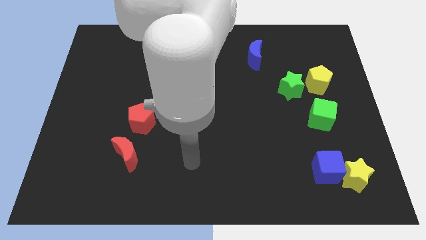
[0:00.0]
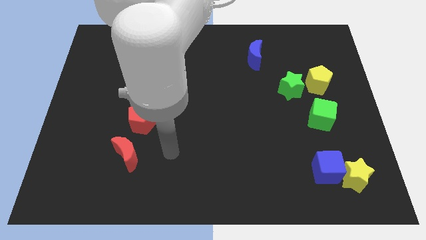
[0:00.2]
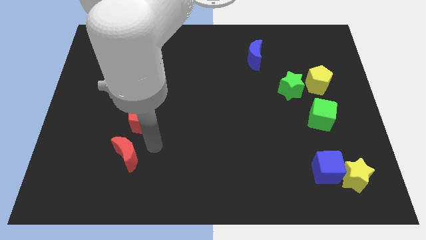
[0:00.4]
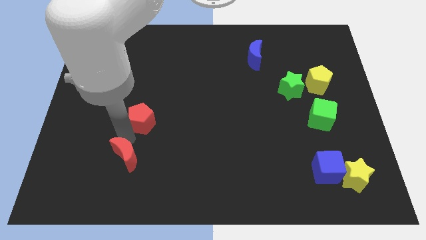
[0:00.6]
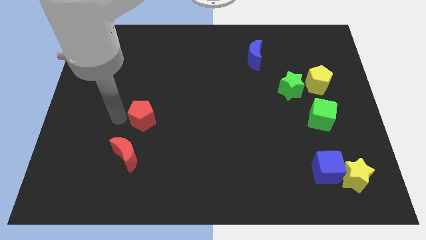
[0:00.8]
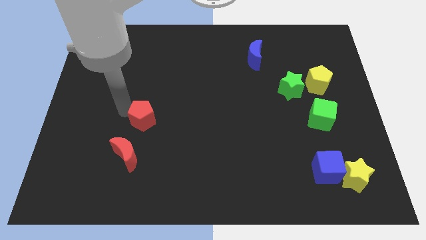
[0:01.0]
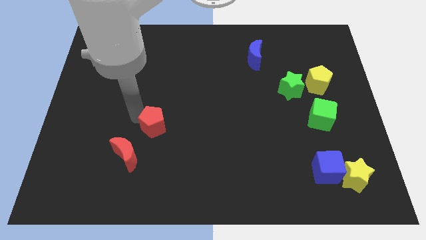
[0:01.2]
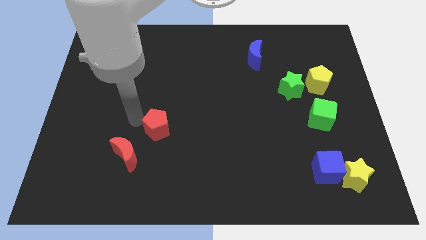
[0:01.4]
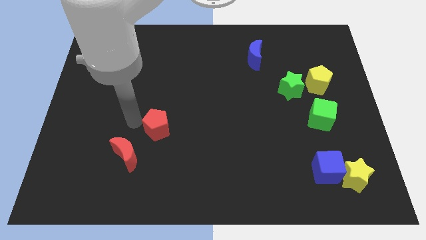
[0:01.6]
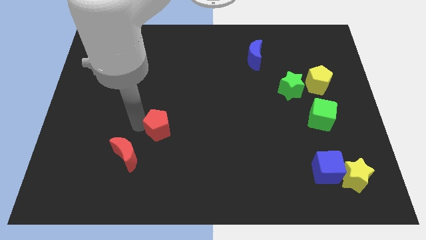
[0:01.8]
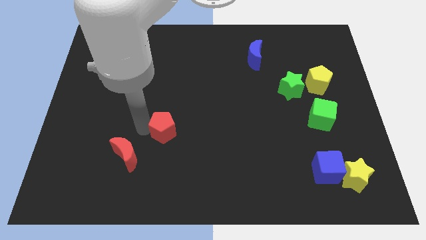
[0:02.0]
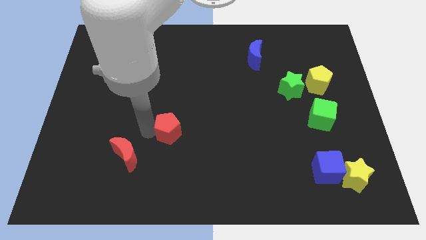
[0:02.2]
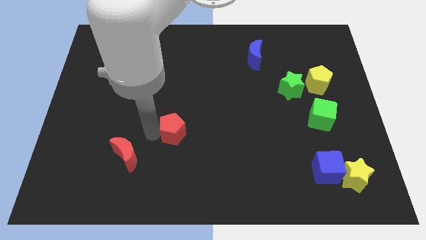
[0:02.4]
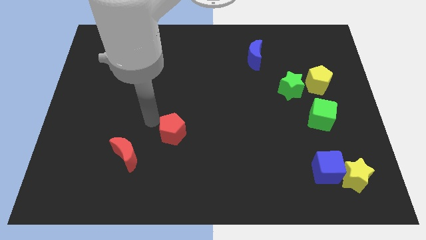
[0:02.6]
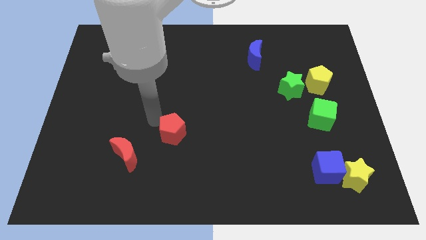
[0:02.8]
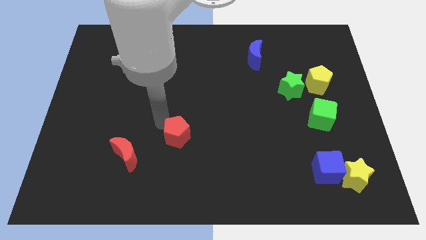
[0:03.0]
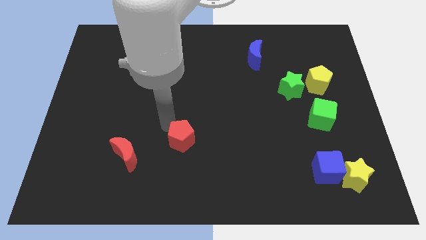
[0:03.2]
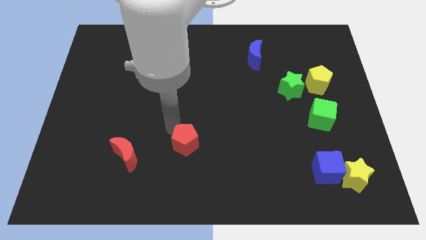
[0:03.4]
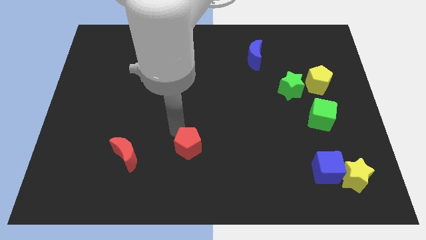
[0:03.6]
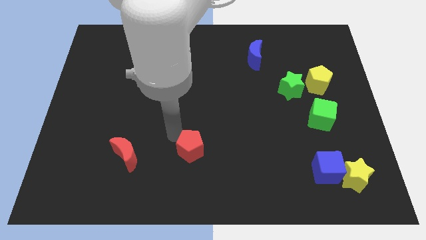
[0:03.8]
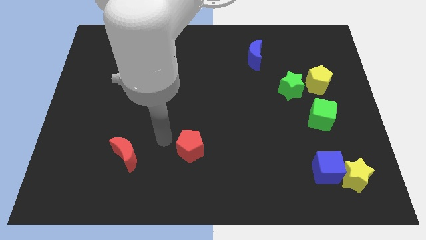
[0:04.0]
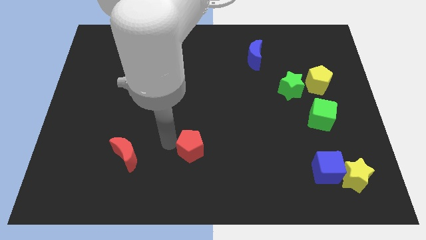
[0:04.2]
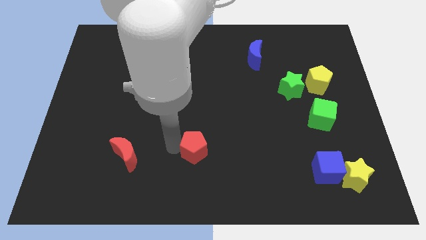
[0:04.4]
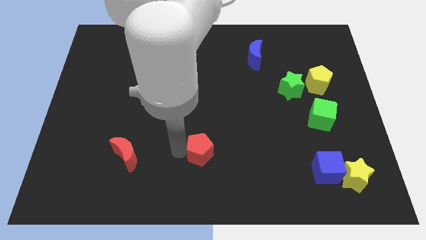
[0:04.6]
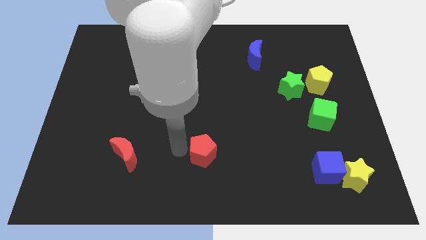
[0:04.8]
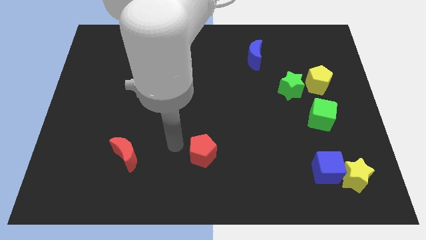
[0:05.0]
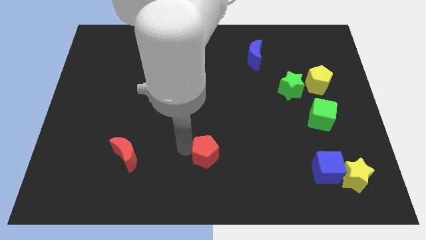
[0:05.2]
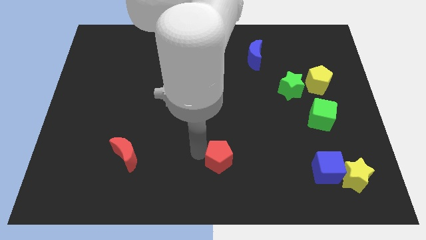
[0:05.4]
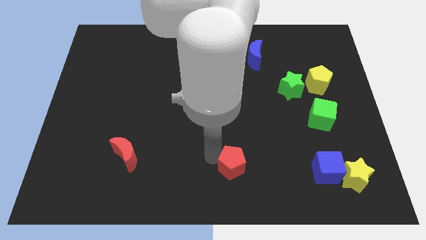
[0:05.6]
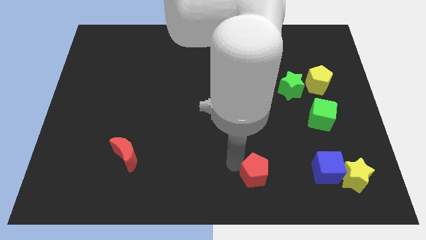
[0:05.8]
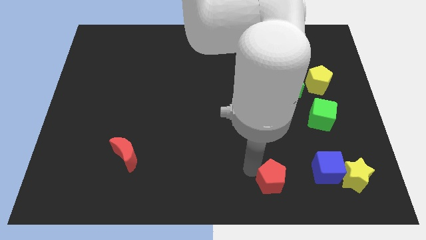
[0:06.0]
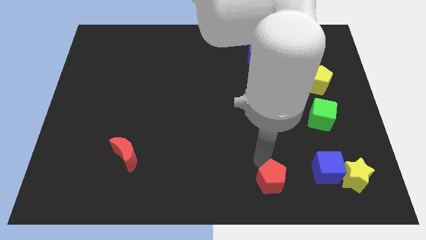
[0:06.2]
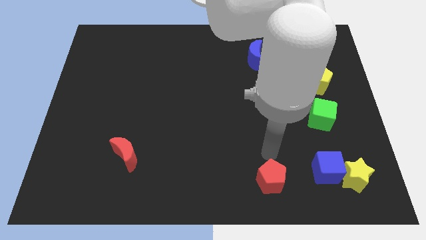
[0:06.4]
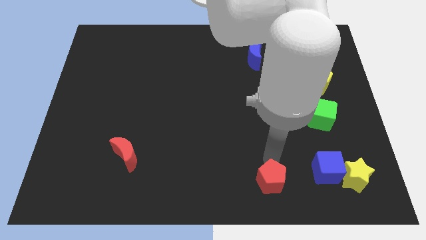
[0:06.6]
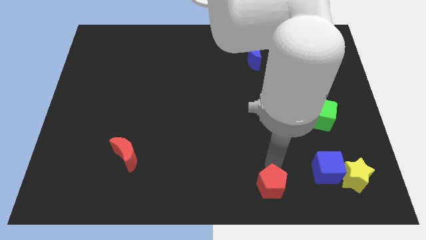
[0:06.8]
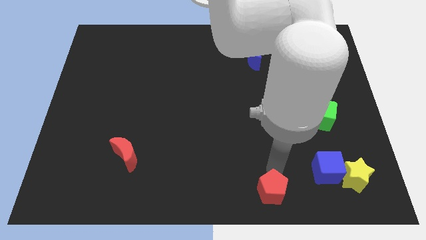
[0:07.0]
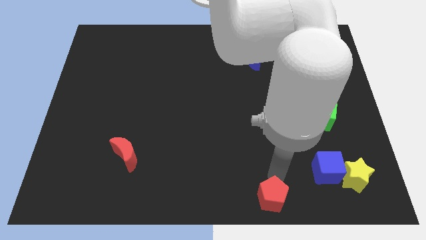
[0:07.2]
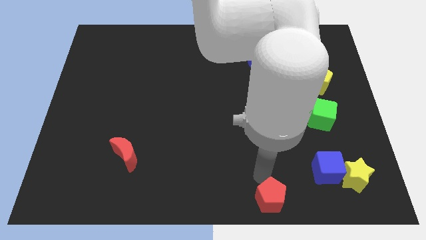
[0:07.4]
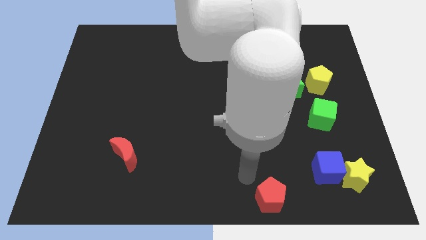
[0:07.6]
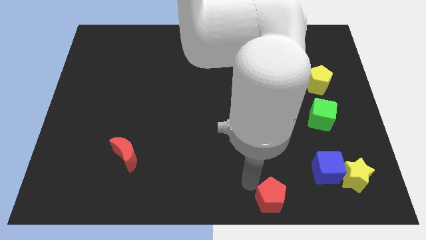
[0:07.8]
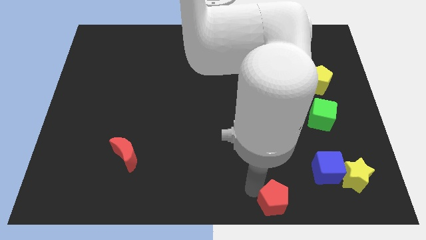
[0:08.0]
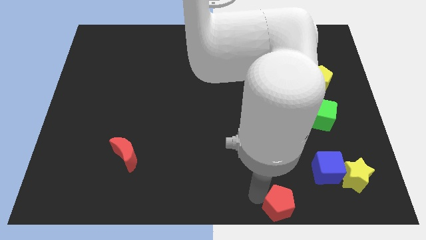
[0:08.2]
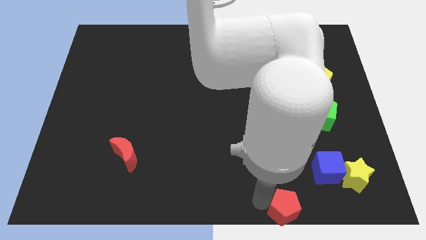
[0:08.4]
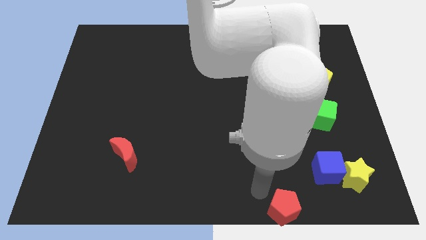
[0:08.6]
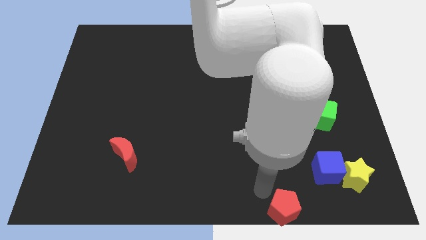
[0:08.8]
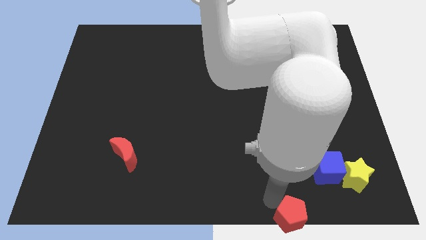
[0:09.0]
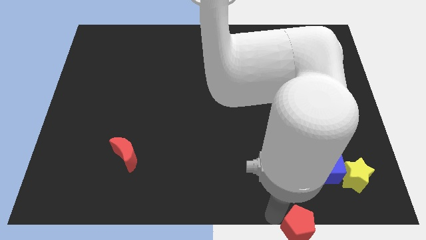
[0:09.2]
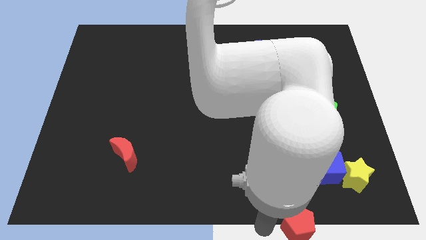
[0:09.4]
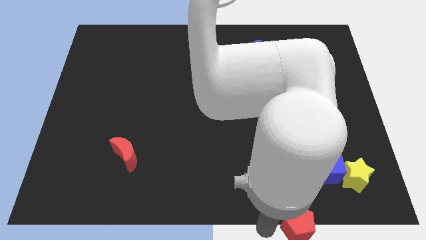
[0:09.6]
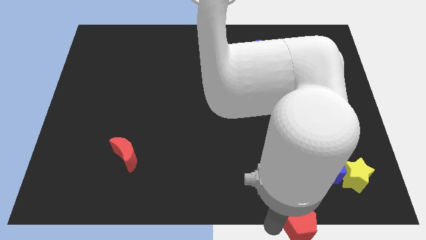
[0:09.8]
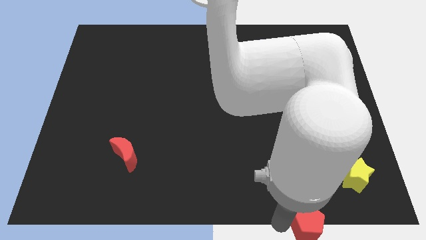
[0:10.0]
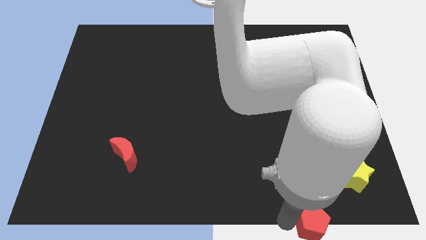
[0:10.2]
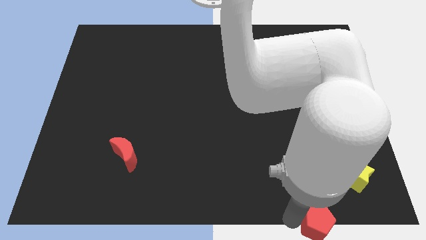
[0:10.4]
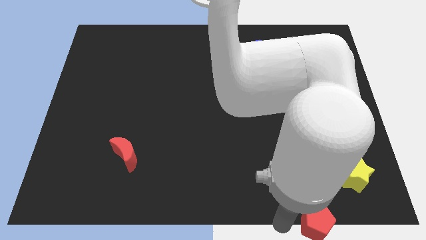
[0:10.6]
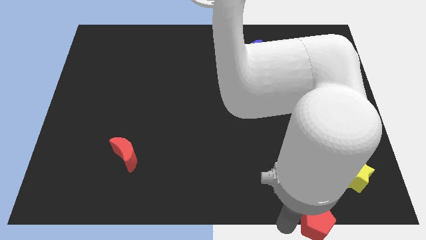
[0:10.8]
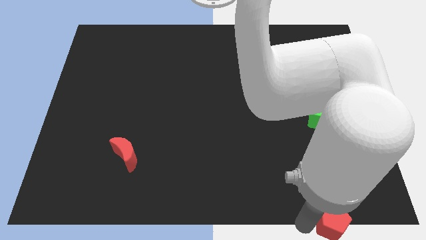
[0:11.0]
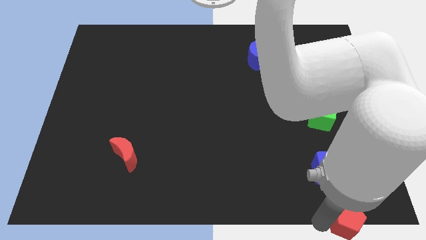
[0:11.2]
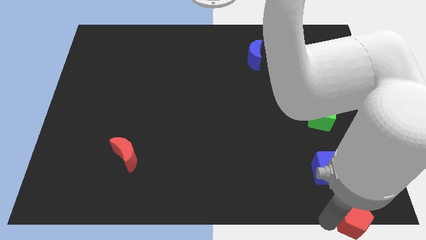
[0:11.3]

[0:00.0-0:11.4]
put the red pentagon to the bottom right corner
